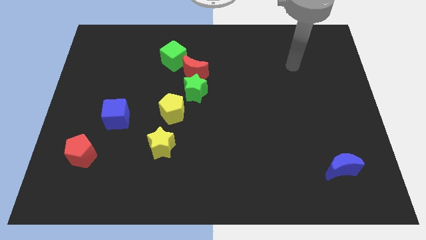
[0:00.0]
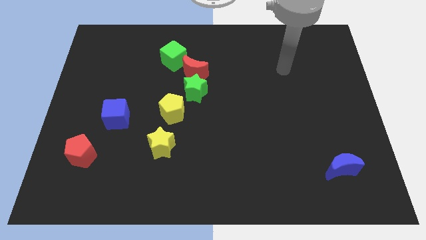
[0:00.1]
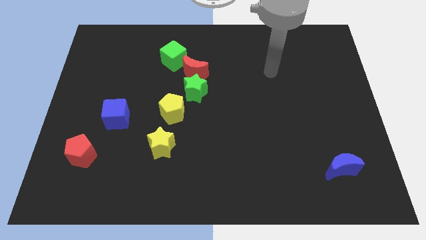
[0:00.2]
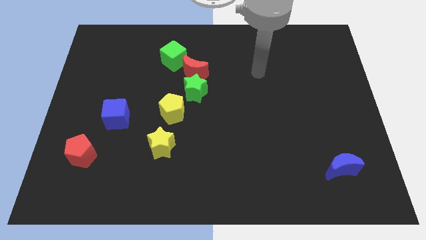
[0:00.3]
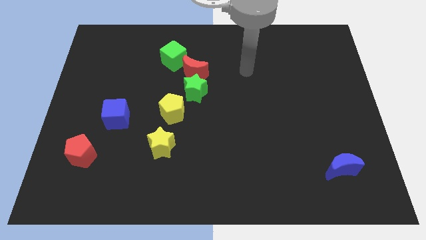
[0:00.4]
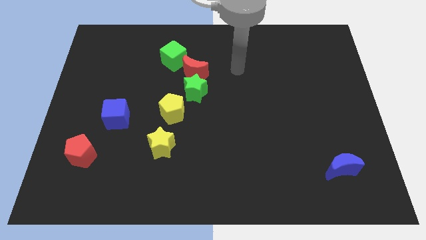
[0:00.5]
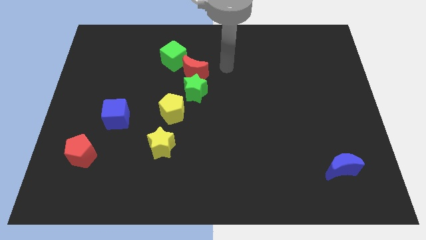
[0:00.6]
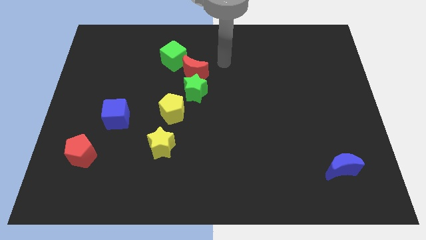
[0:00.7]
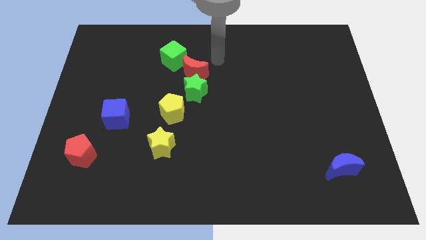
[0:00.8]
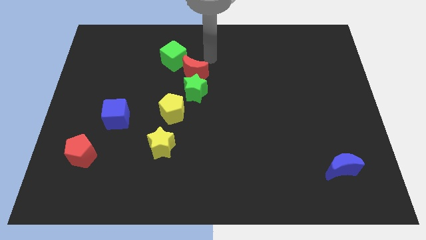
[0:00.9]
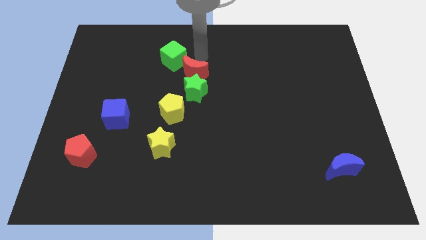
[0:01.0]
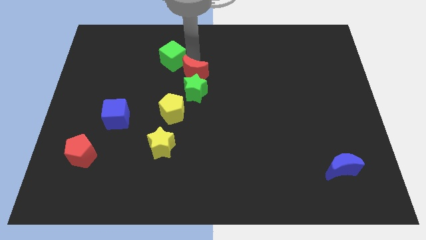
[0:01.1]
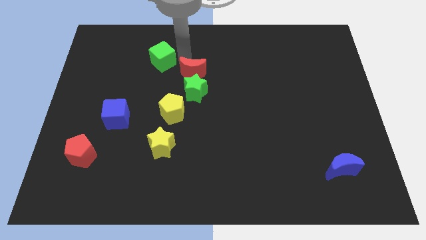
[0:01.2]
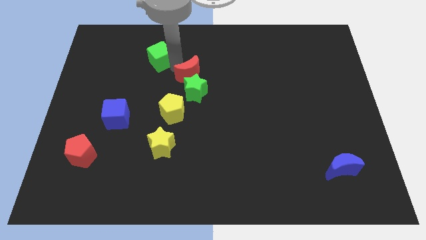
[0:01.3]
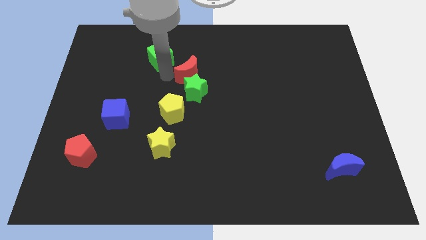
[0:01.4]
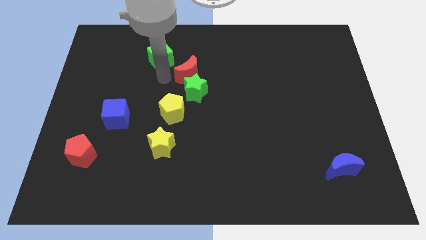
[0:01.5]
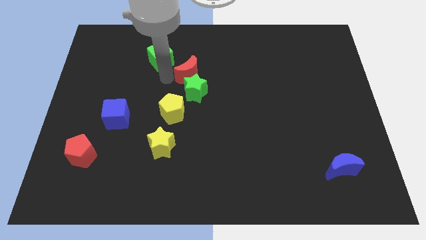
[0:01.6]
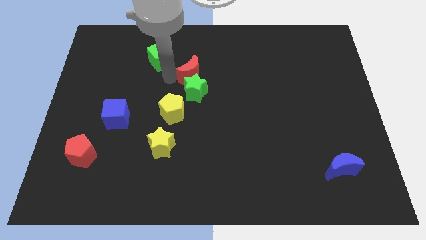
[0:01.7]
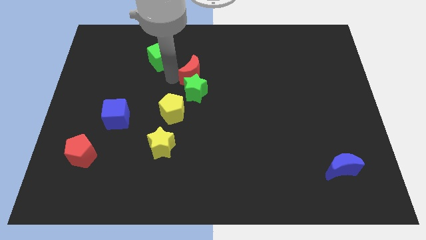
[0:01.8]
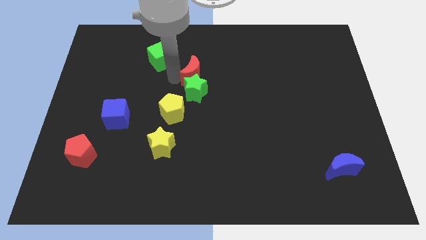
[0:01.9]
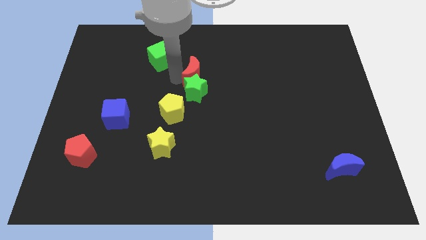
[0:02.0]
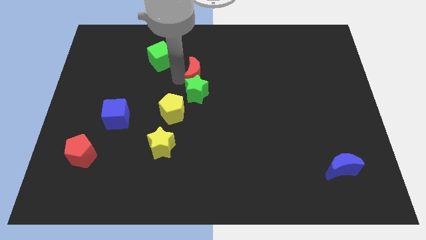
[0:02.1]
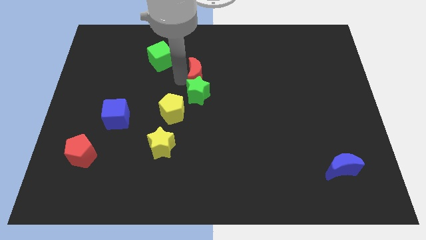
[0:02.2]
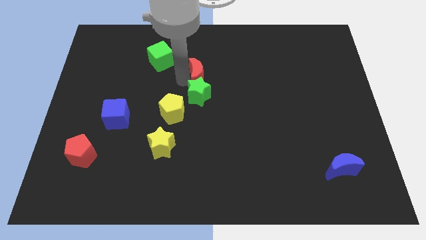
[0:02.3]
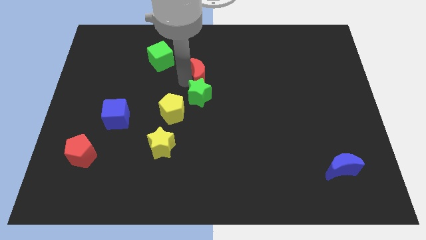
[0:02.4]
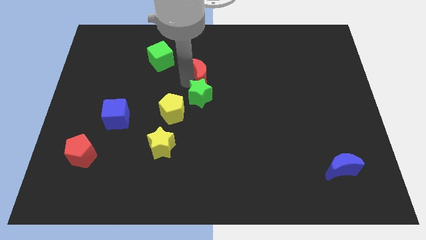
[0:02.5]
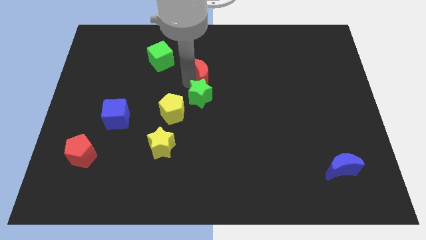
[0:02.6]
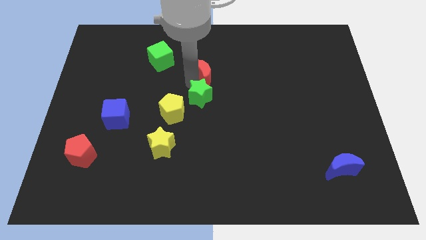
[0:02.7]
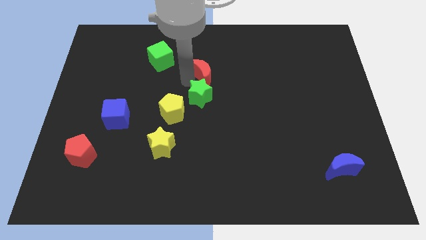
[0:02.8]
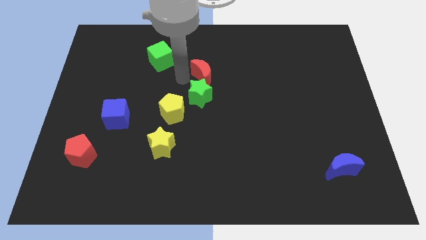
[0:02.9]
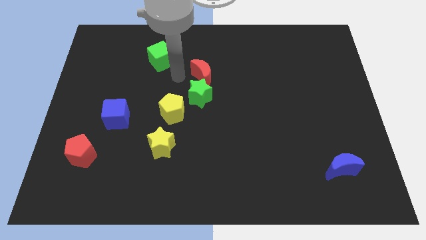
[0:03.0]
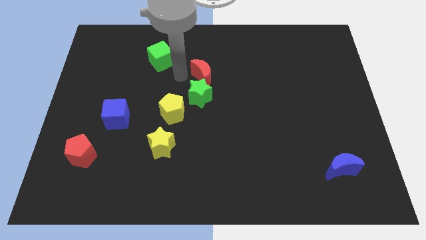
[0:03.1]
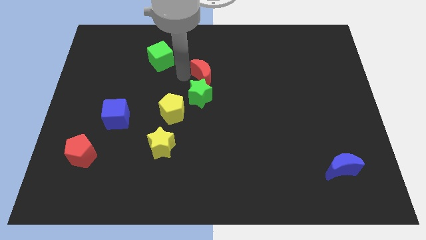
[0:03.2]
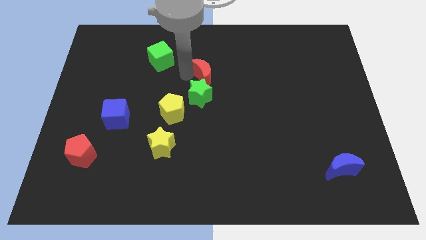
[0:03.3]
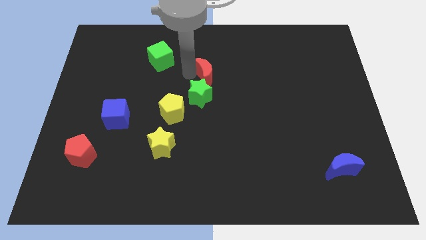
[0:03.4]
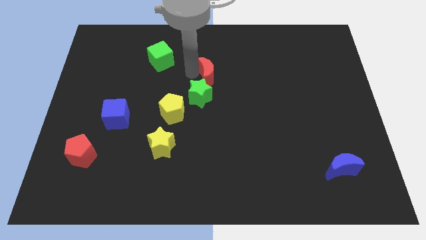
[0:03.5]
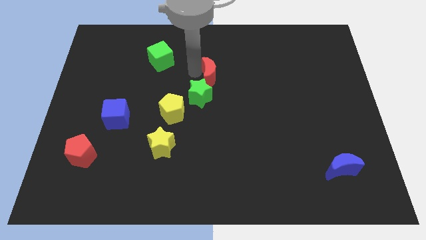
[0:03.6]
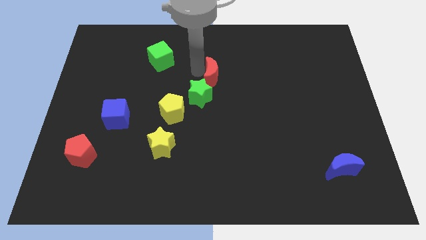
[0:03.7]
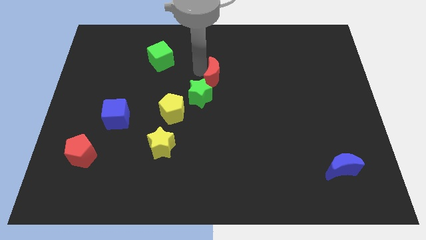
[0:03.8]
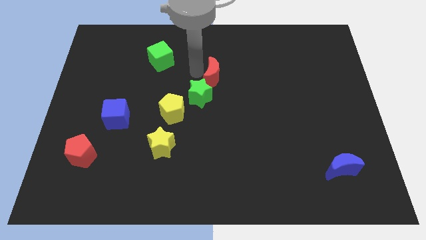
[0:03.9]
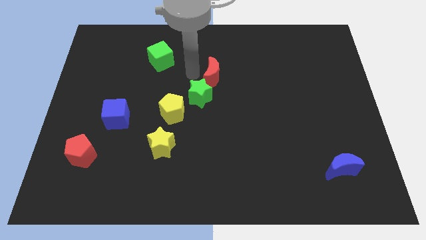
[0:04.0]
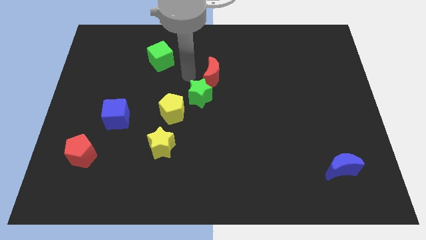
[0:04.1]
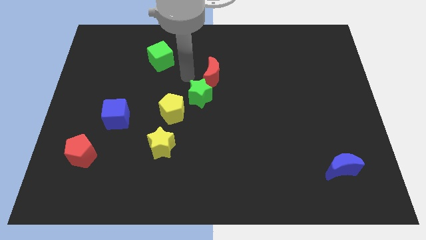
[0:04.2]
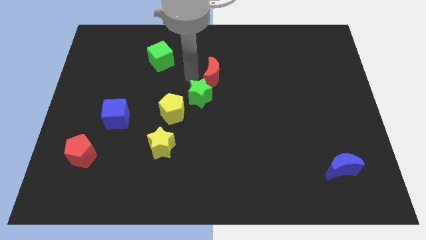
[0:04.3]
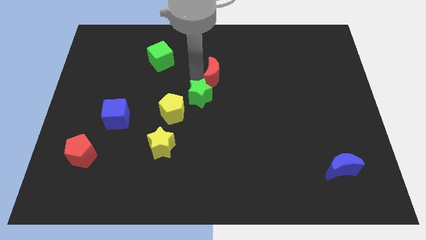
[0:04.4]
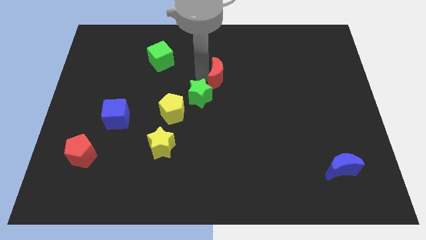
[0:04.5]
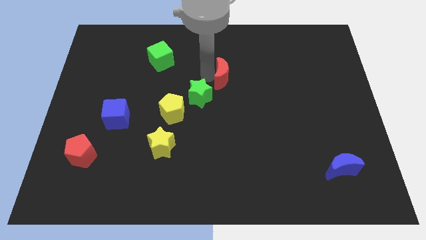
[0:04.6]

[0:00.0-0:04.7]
separate the red moon from the green star and green cube

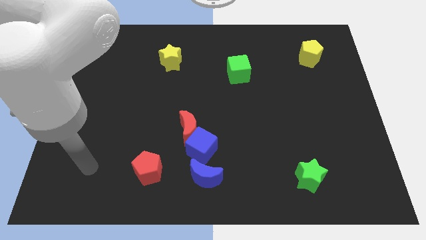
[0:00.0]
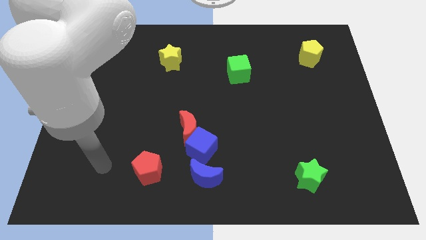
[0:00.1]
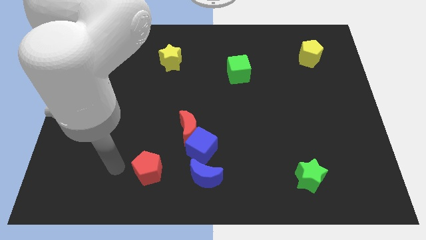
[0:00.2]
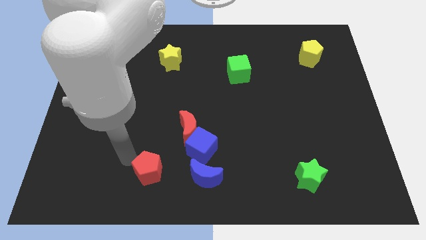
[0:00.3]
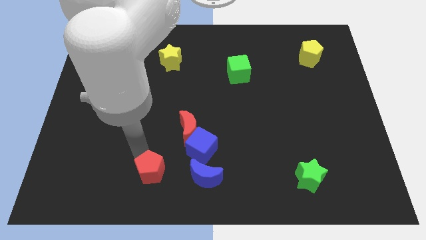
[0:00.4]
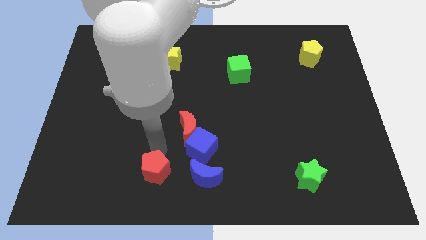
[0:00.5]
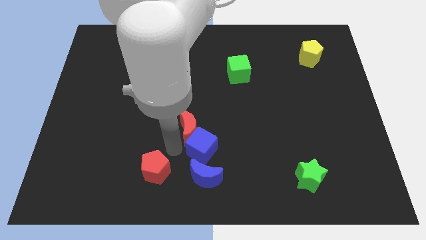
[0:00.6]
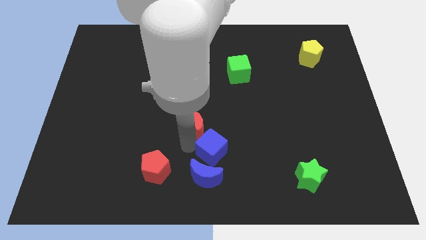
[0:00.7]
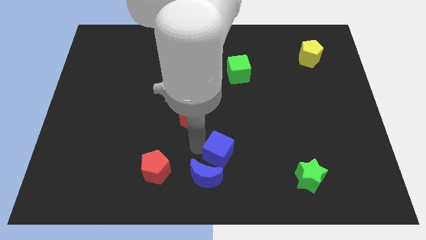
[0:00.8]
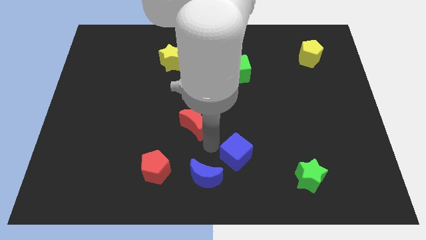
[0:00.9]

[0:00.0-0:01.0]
move the red moon away from the blue cube

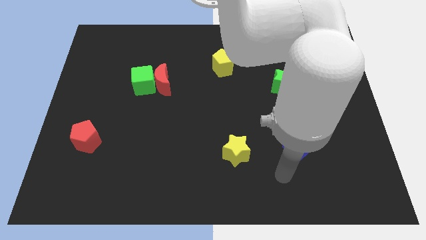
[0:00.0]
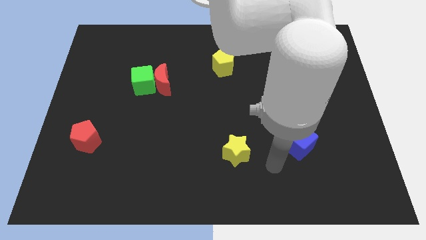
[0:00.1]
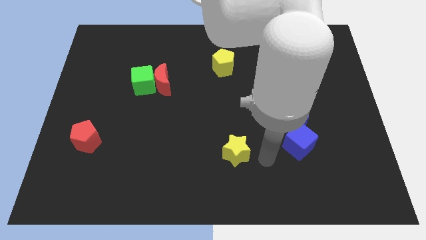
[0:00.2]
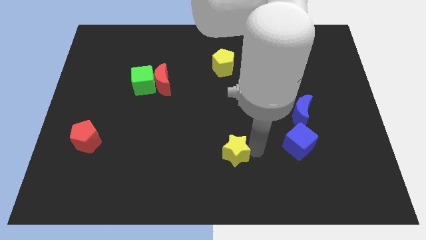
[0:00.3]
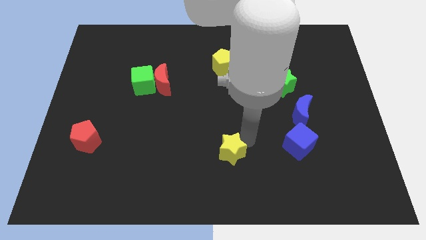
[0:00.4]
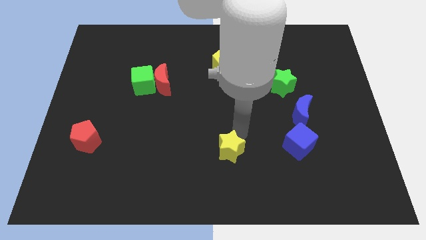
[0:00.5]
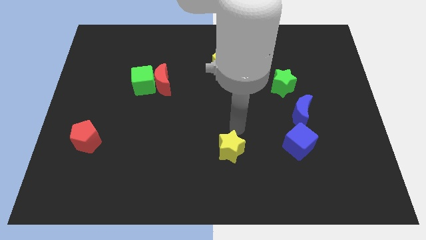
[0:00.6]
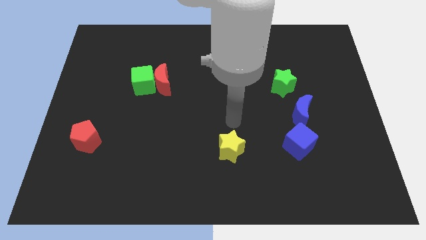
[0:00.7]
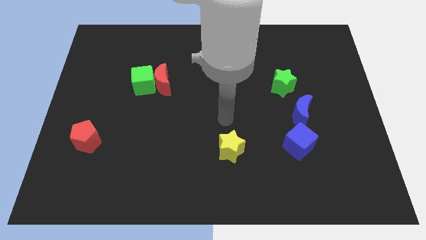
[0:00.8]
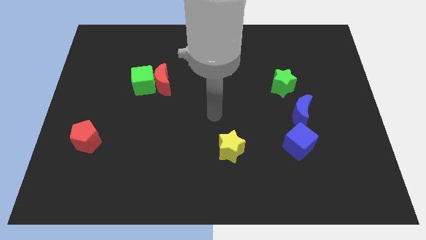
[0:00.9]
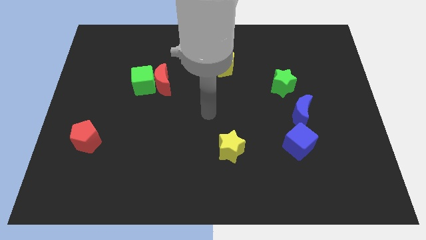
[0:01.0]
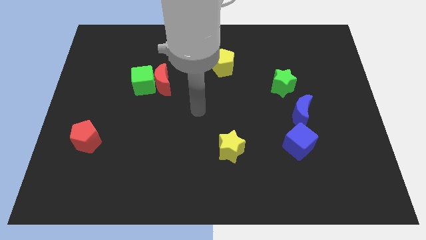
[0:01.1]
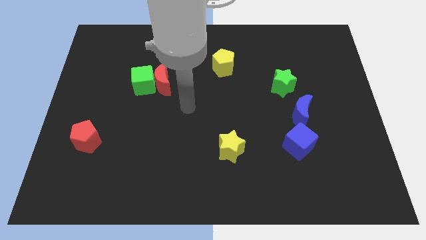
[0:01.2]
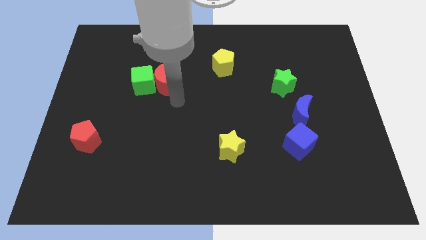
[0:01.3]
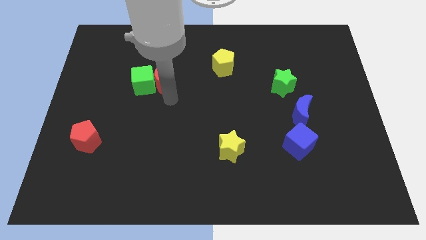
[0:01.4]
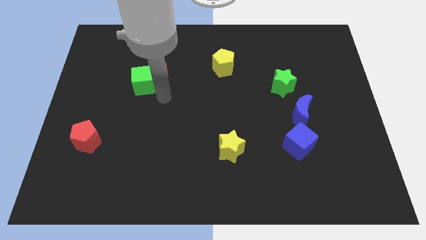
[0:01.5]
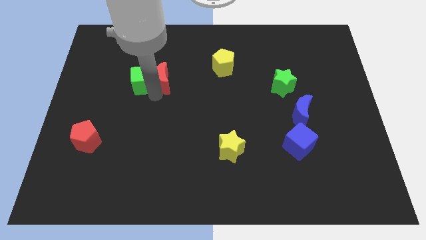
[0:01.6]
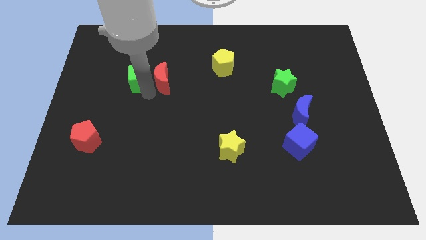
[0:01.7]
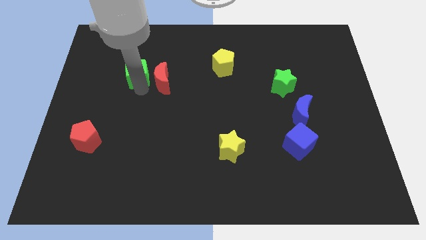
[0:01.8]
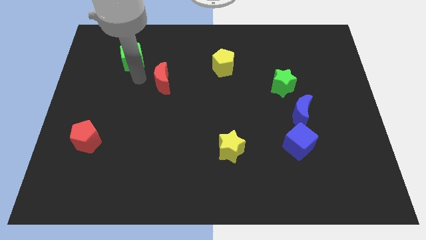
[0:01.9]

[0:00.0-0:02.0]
pull the red moon apart from the green cube

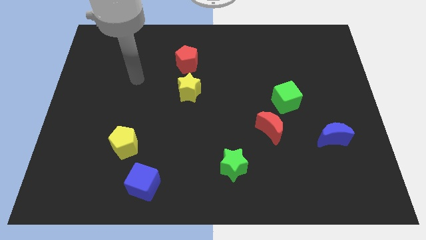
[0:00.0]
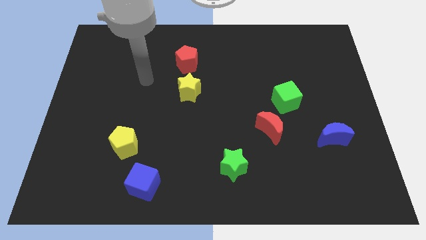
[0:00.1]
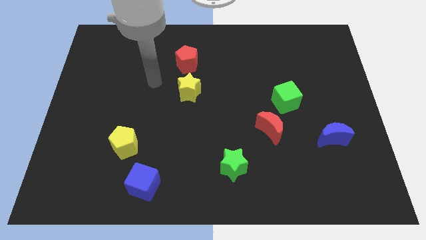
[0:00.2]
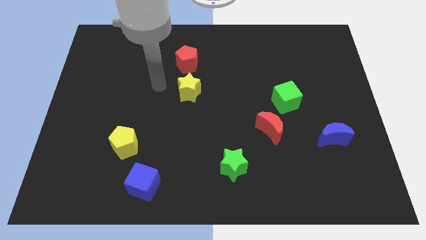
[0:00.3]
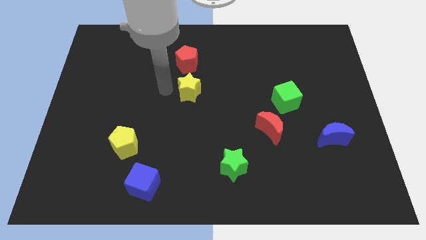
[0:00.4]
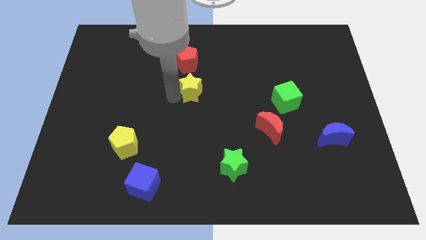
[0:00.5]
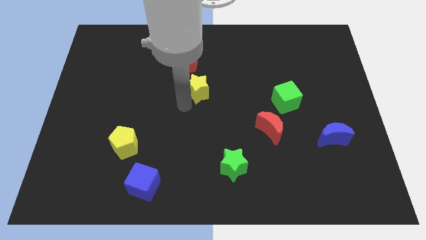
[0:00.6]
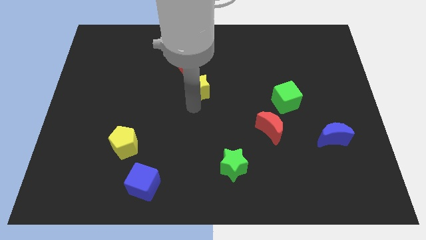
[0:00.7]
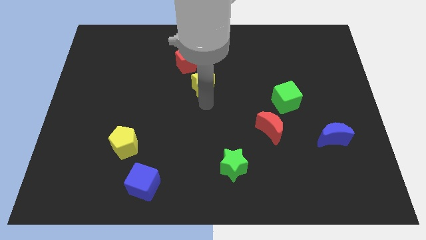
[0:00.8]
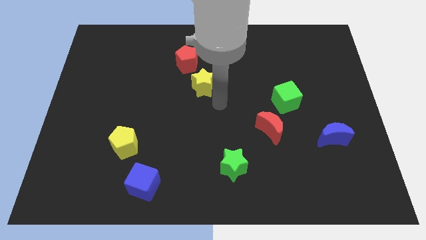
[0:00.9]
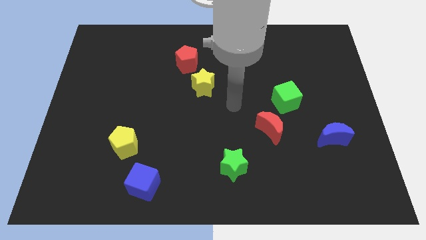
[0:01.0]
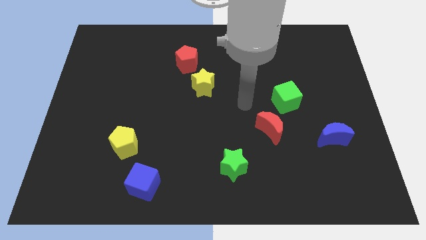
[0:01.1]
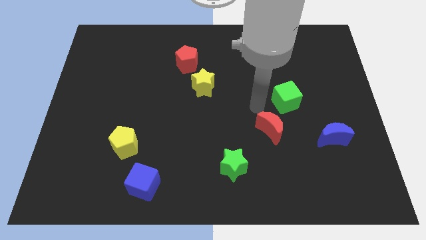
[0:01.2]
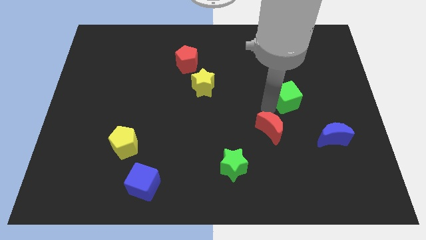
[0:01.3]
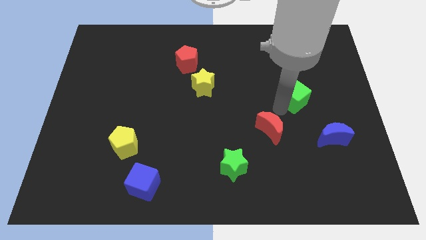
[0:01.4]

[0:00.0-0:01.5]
separate the red moon from the green cube

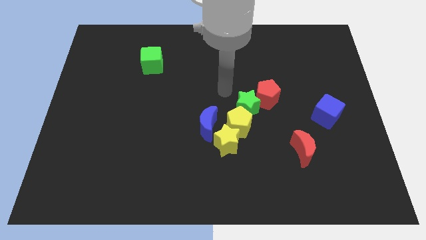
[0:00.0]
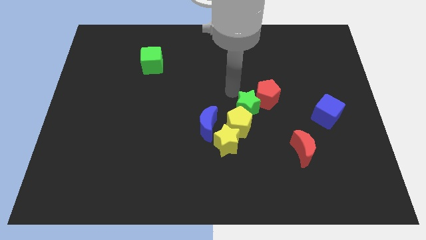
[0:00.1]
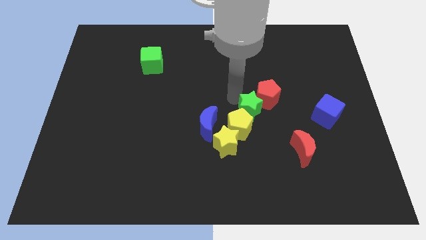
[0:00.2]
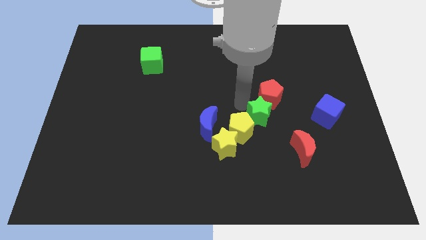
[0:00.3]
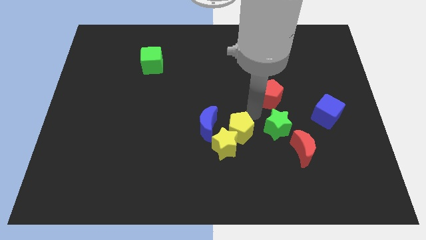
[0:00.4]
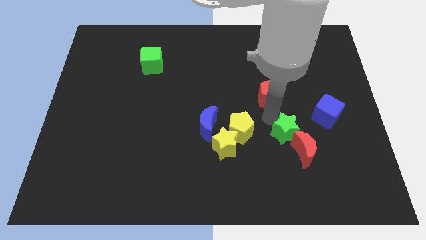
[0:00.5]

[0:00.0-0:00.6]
pull the red pentagon apart from the green star
